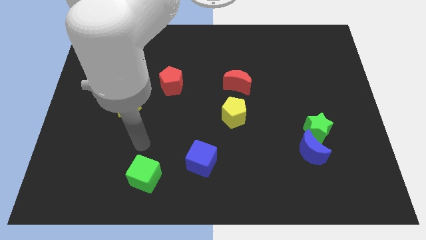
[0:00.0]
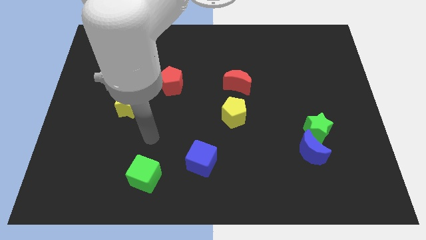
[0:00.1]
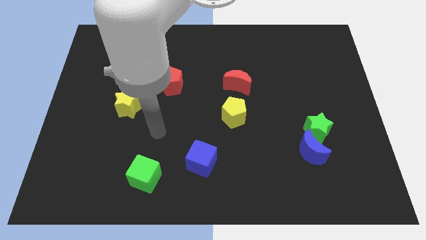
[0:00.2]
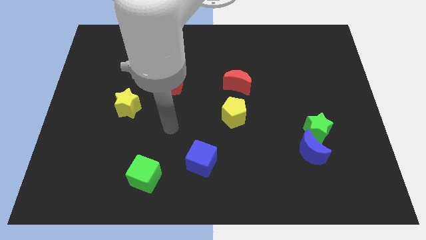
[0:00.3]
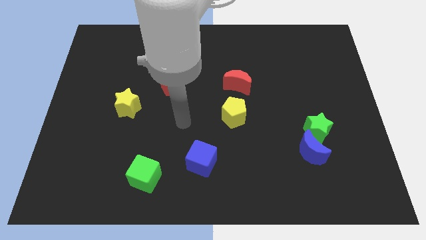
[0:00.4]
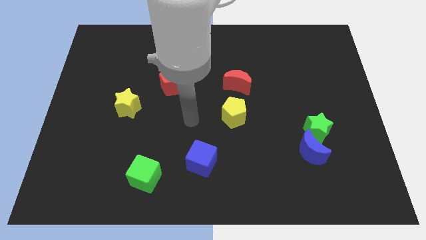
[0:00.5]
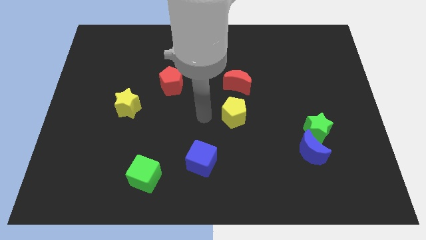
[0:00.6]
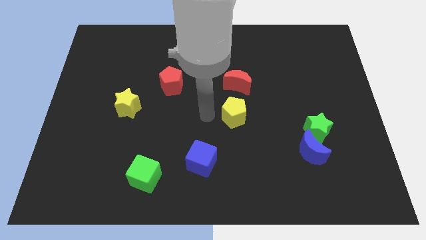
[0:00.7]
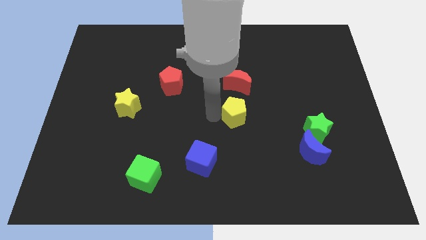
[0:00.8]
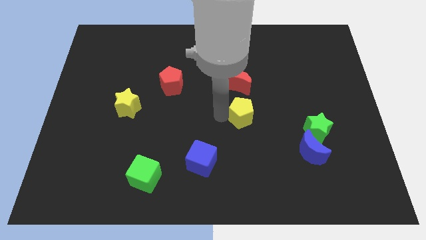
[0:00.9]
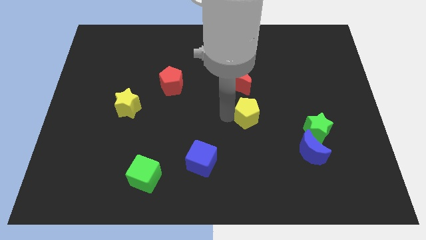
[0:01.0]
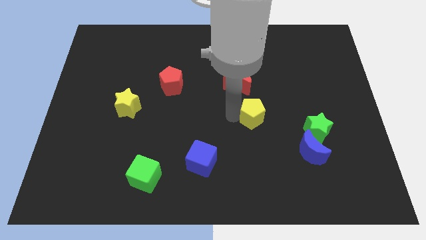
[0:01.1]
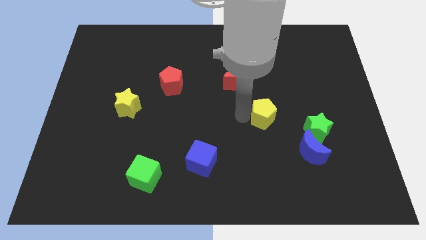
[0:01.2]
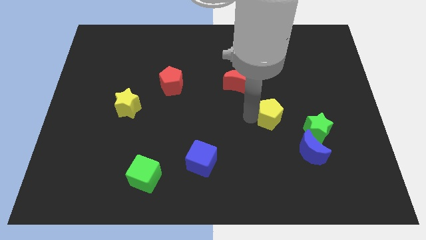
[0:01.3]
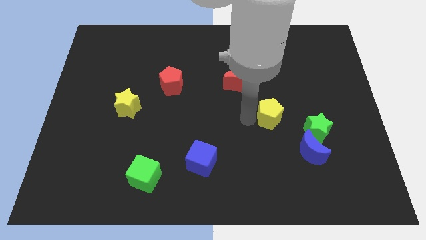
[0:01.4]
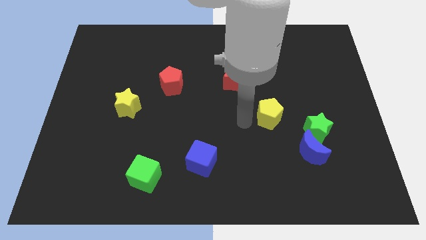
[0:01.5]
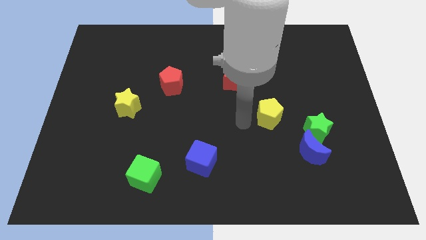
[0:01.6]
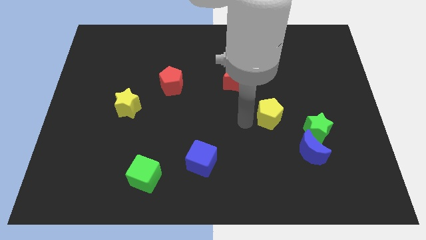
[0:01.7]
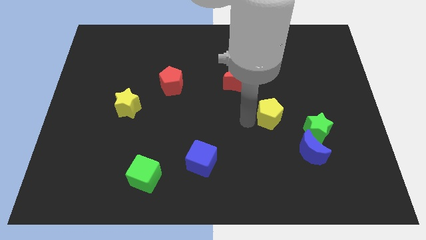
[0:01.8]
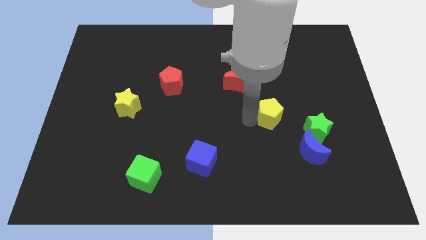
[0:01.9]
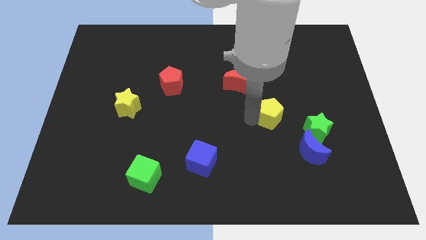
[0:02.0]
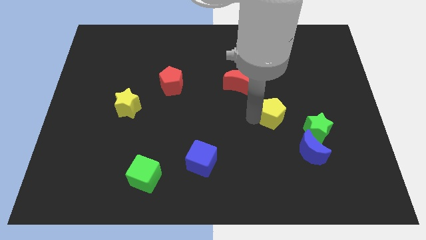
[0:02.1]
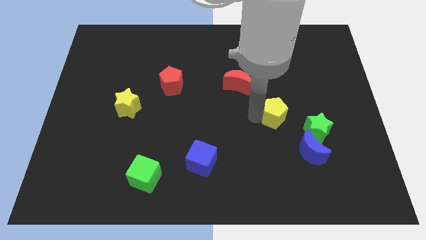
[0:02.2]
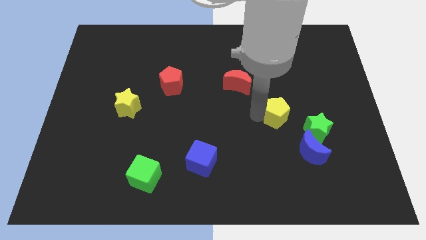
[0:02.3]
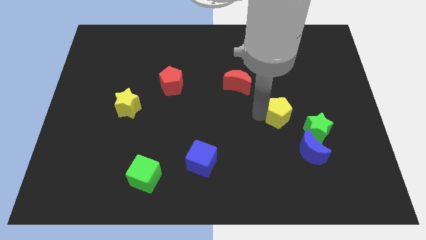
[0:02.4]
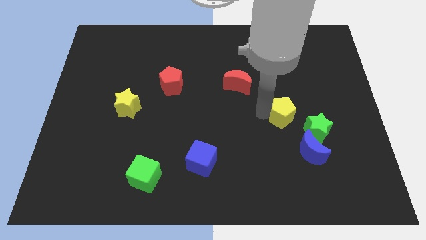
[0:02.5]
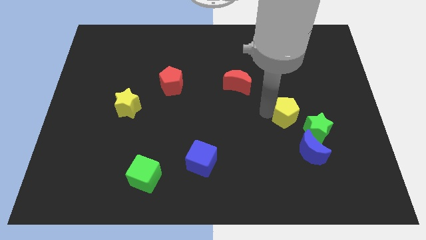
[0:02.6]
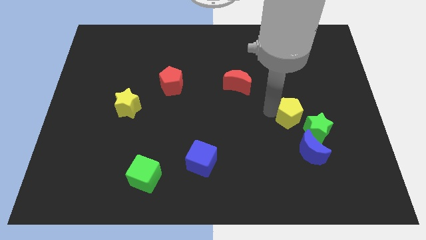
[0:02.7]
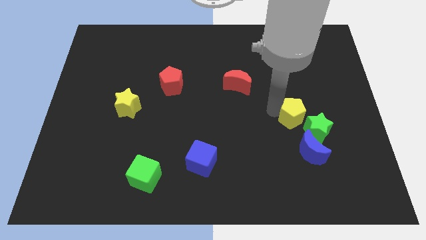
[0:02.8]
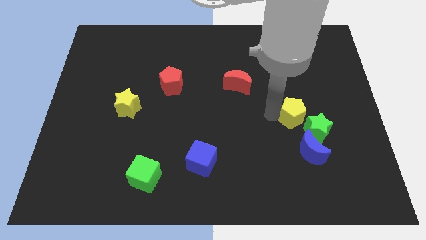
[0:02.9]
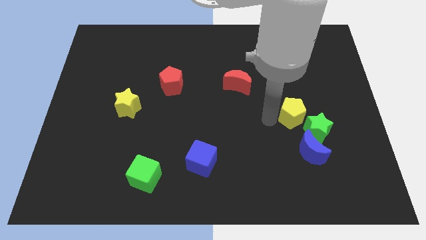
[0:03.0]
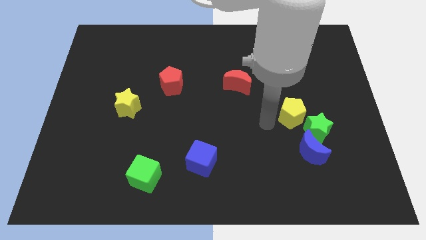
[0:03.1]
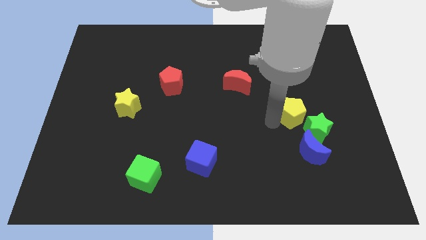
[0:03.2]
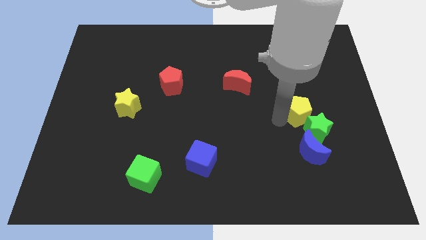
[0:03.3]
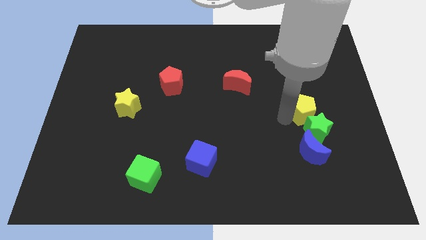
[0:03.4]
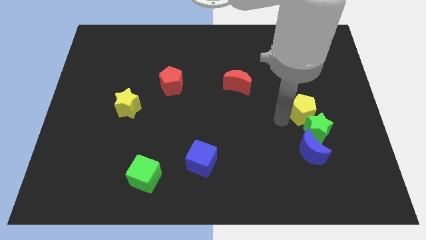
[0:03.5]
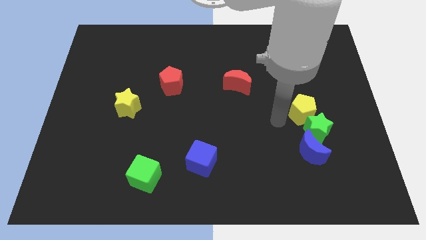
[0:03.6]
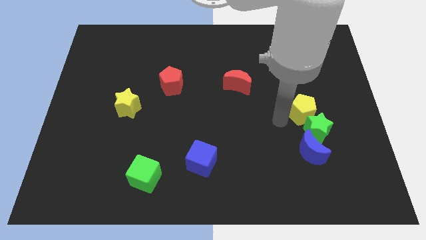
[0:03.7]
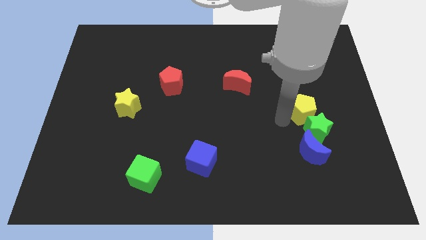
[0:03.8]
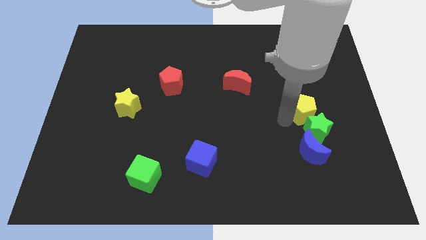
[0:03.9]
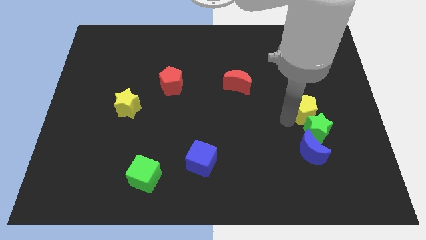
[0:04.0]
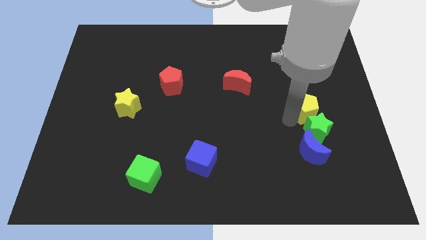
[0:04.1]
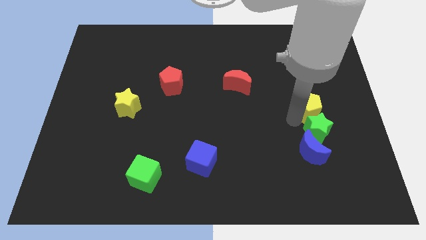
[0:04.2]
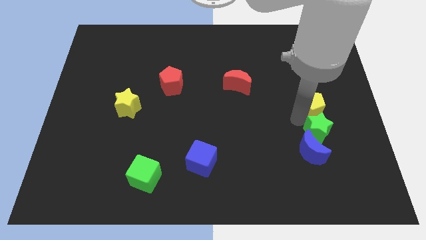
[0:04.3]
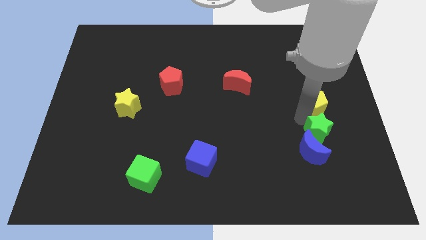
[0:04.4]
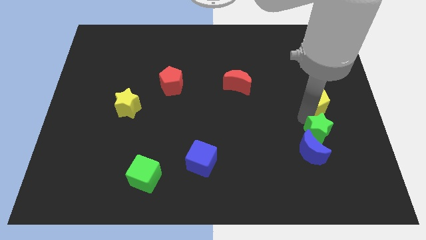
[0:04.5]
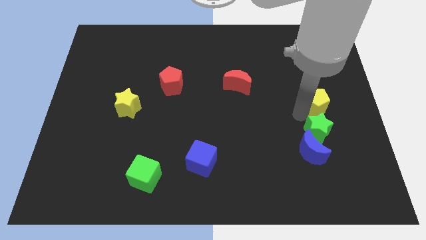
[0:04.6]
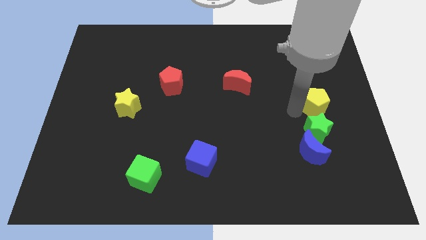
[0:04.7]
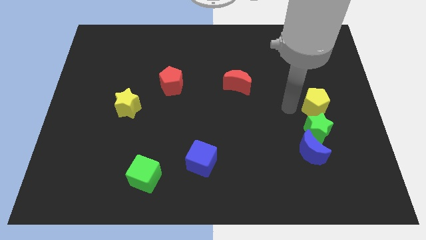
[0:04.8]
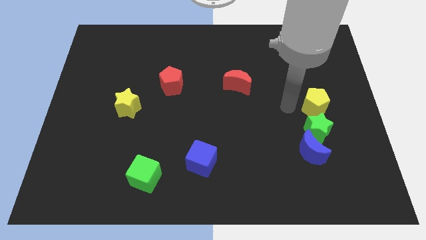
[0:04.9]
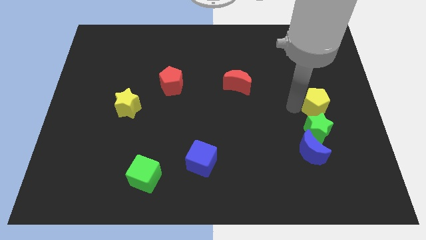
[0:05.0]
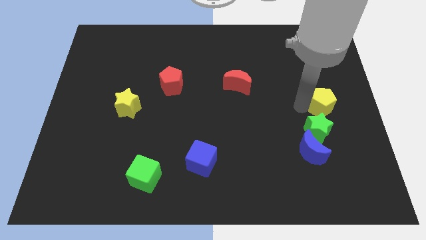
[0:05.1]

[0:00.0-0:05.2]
move the yellow pentagon to the right side

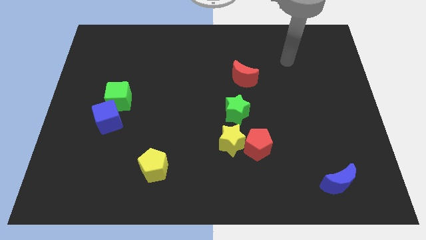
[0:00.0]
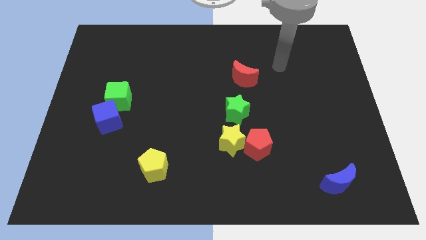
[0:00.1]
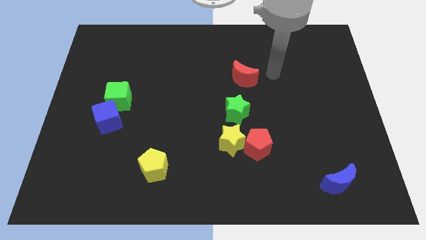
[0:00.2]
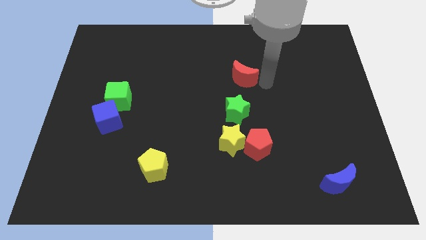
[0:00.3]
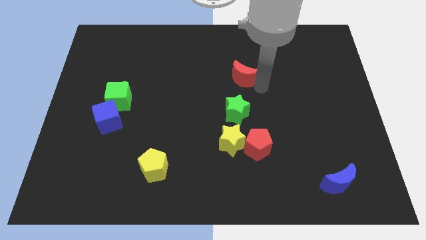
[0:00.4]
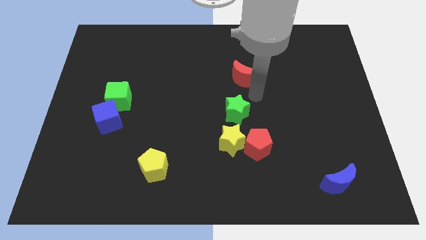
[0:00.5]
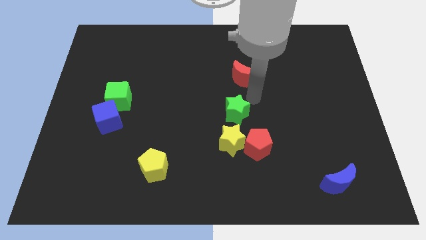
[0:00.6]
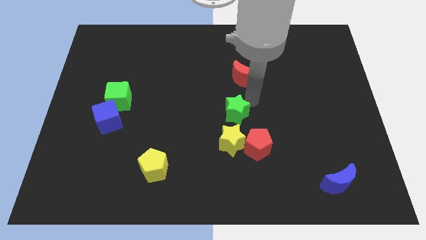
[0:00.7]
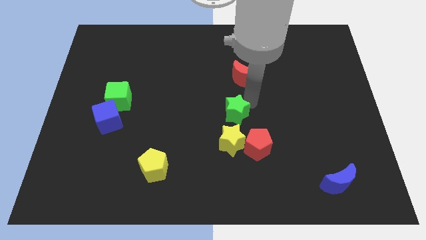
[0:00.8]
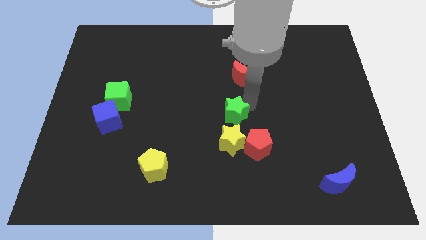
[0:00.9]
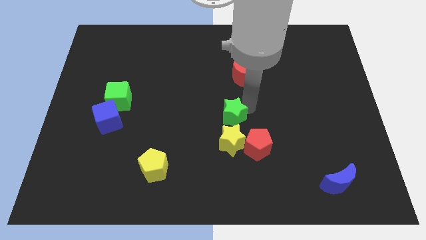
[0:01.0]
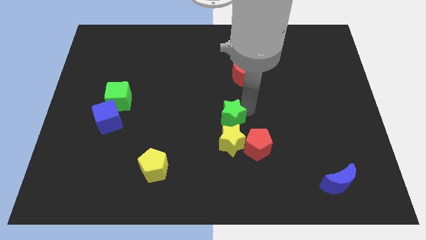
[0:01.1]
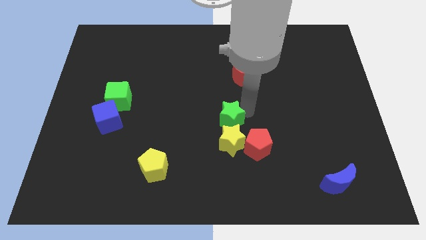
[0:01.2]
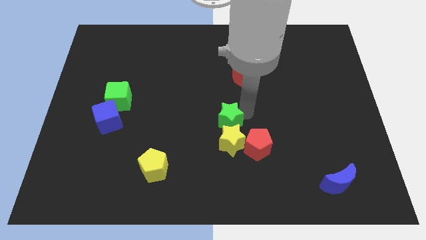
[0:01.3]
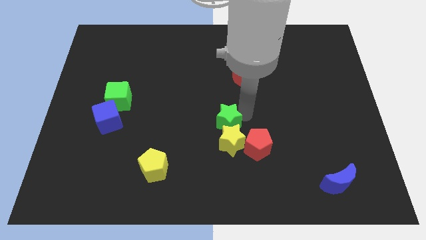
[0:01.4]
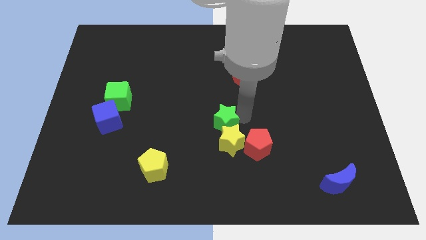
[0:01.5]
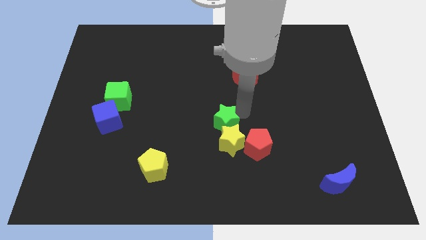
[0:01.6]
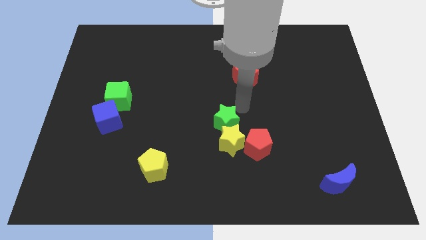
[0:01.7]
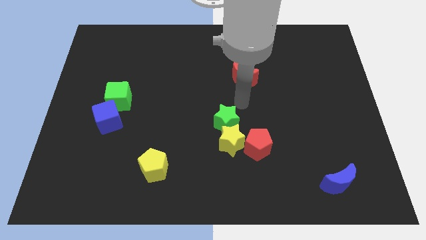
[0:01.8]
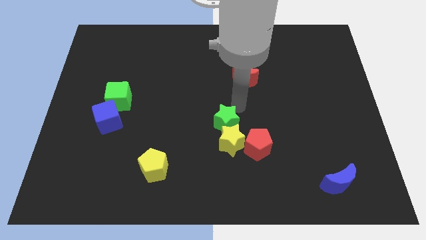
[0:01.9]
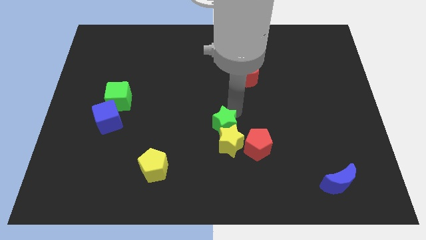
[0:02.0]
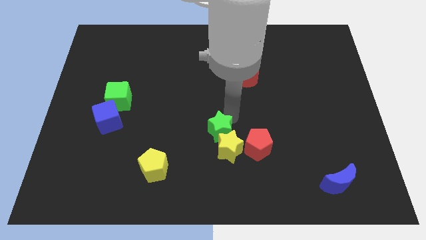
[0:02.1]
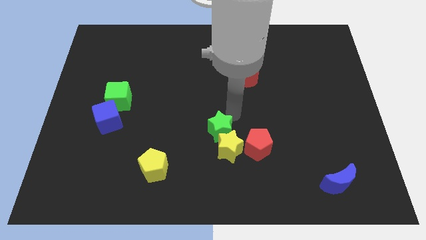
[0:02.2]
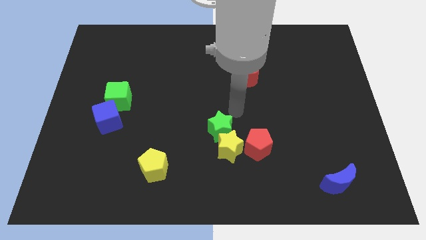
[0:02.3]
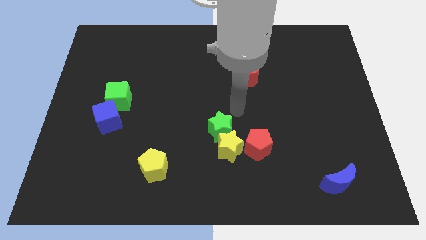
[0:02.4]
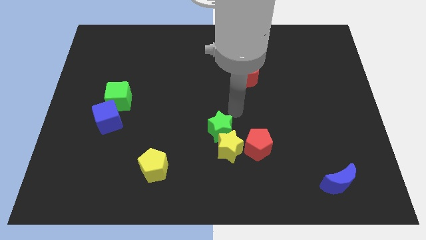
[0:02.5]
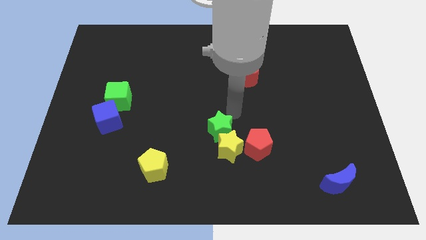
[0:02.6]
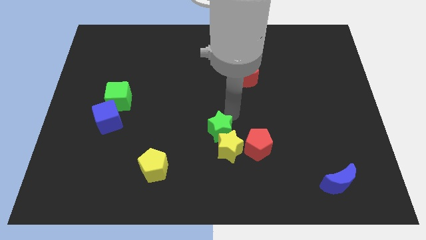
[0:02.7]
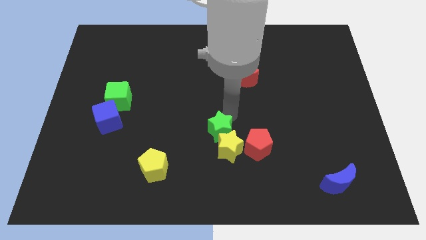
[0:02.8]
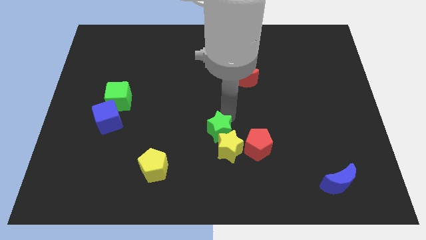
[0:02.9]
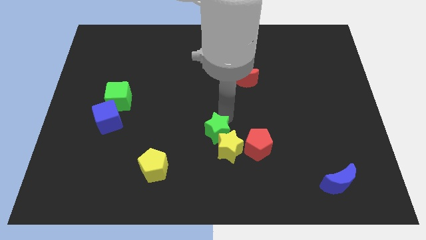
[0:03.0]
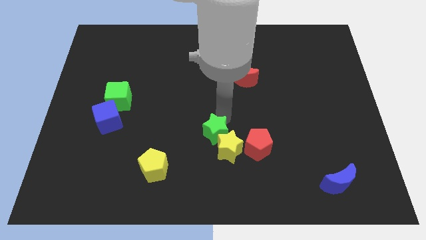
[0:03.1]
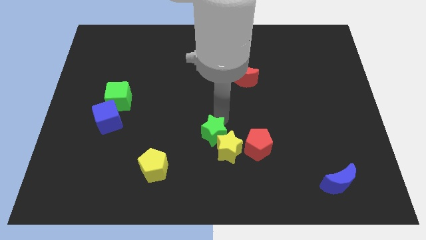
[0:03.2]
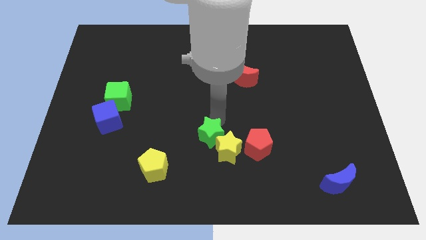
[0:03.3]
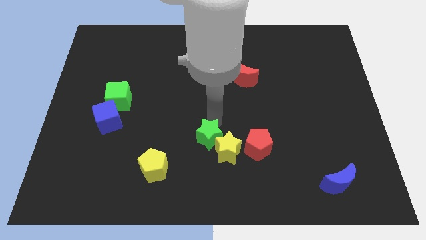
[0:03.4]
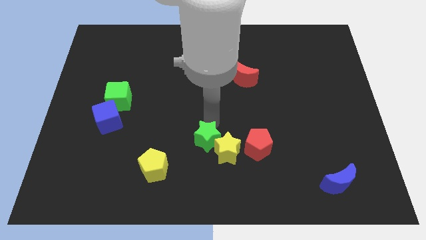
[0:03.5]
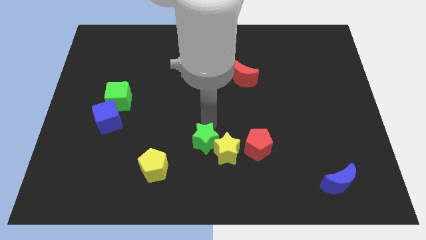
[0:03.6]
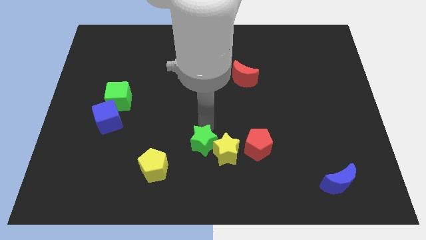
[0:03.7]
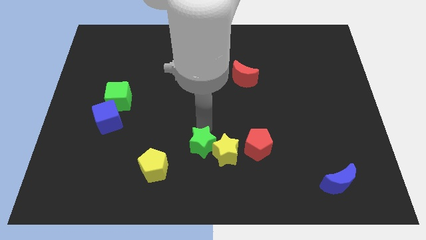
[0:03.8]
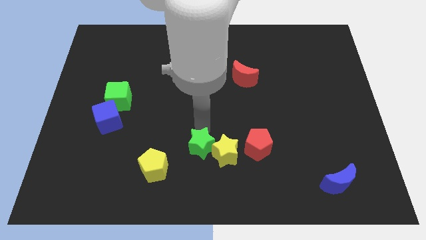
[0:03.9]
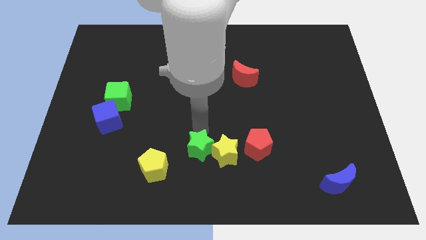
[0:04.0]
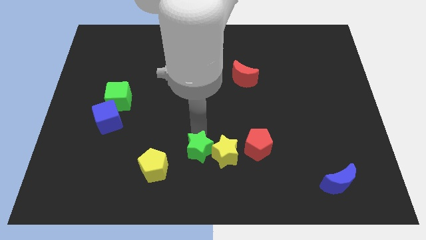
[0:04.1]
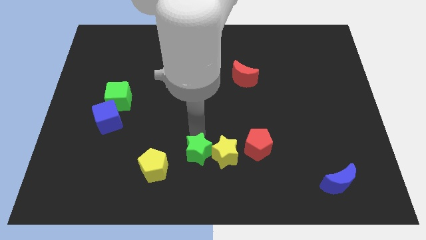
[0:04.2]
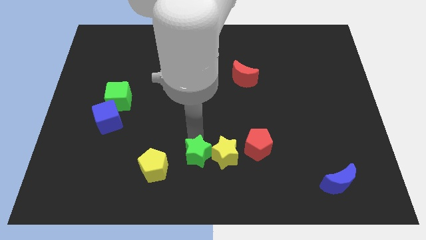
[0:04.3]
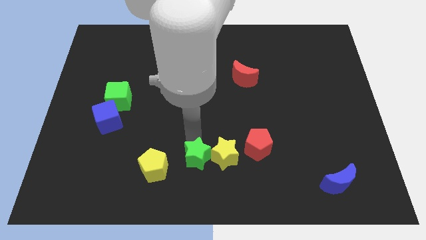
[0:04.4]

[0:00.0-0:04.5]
put the green star to the bottom side
